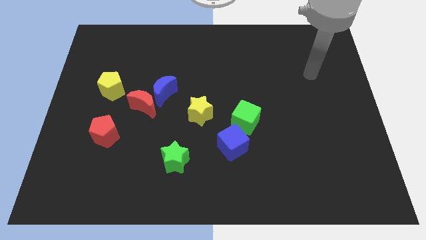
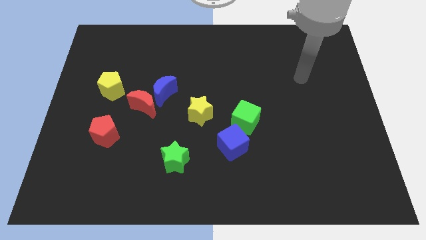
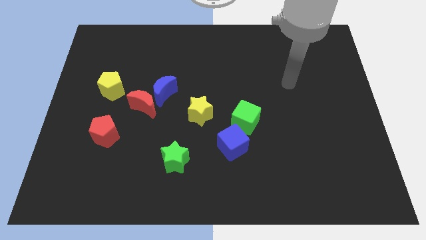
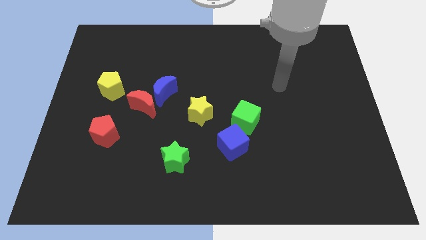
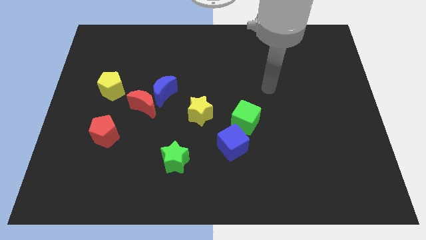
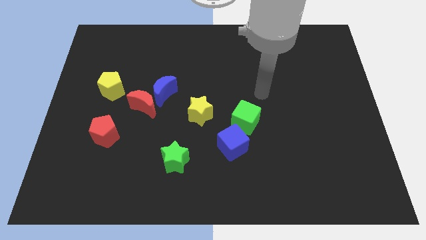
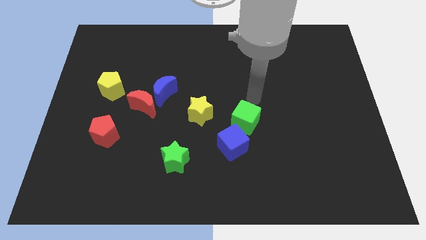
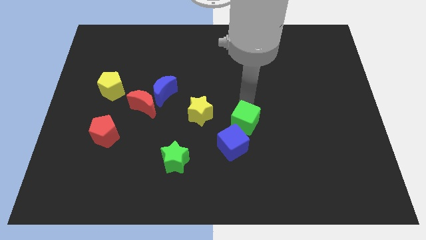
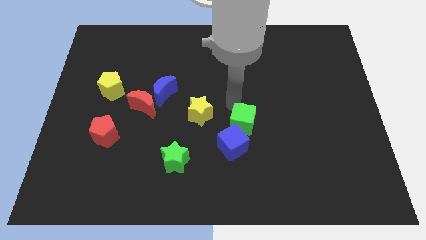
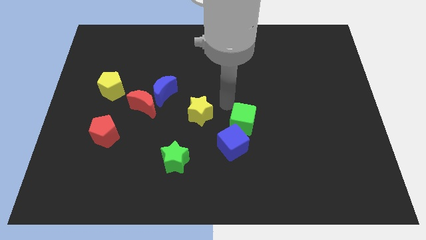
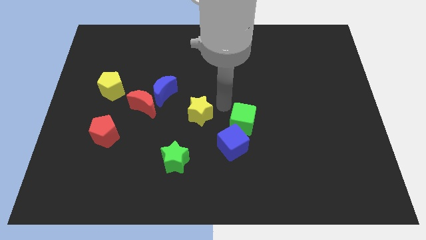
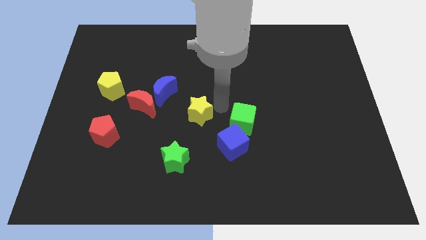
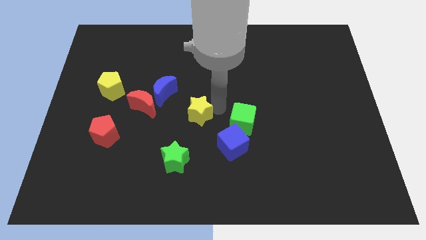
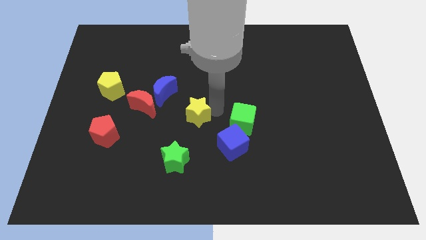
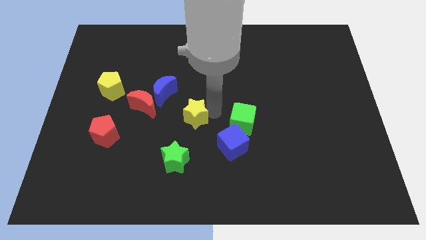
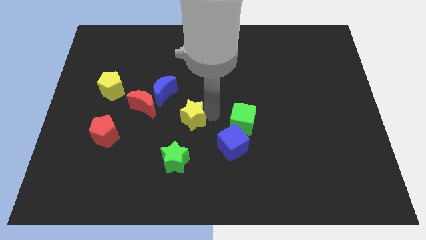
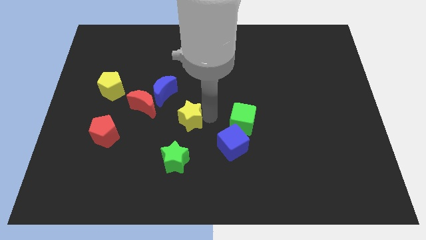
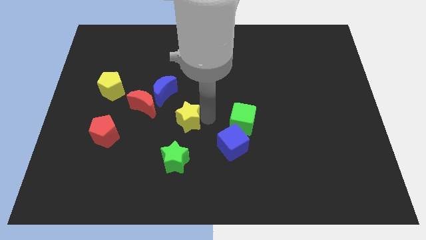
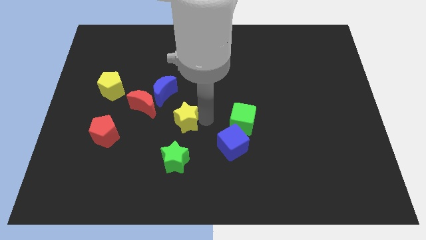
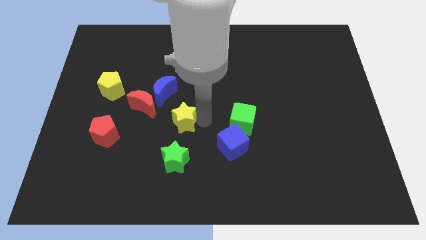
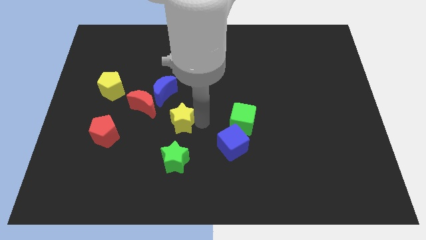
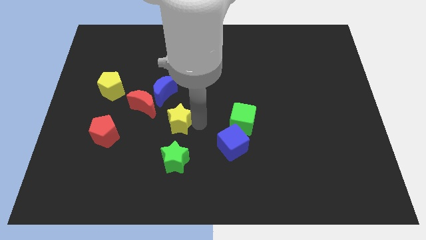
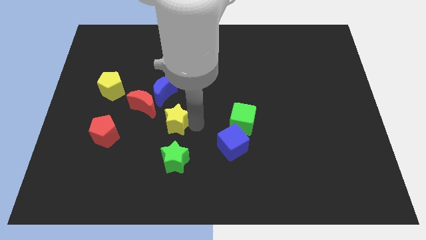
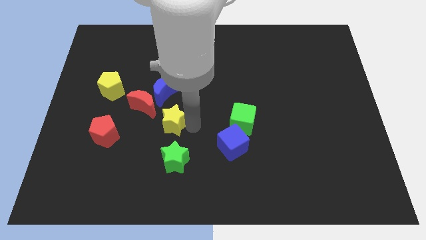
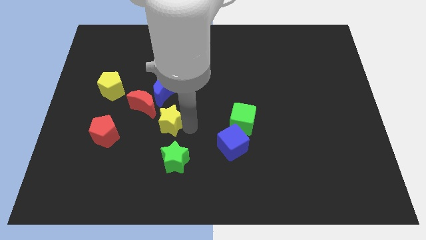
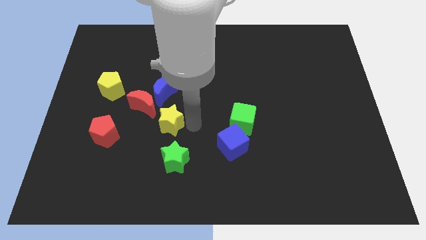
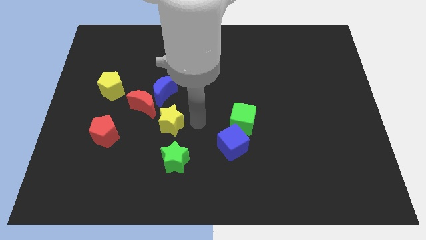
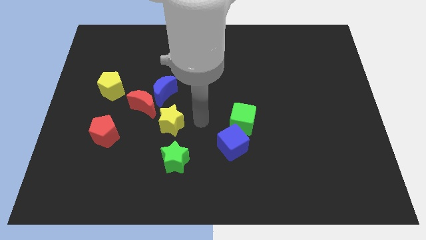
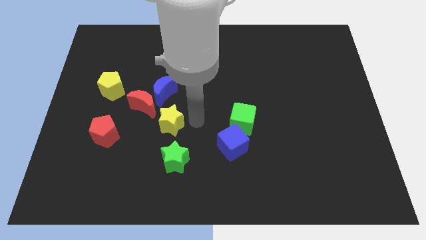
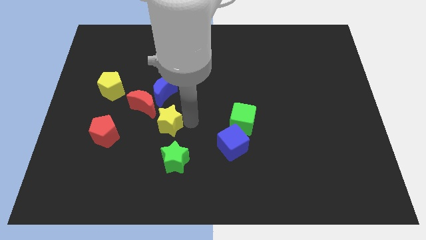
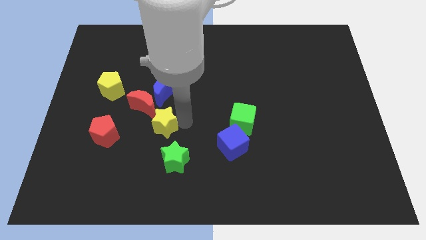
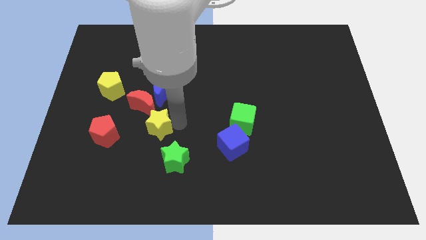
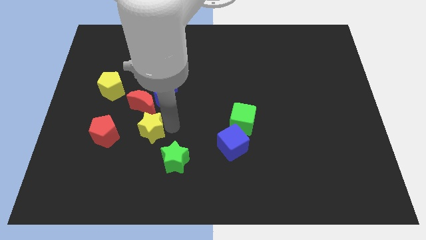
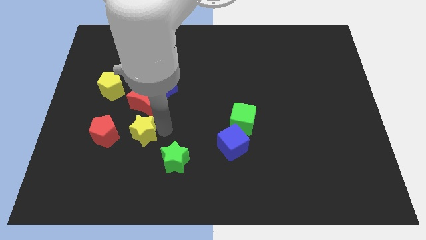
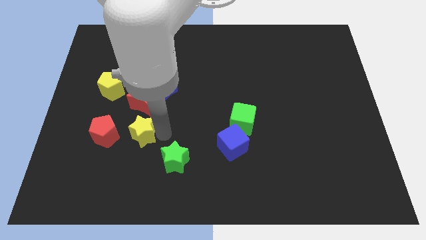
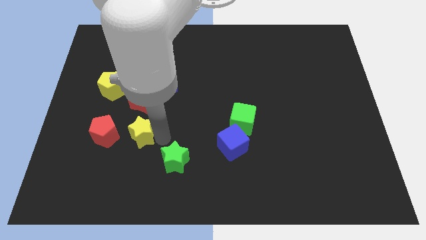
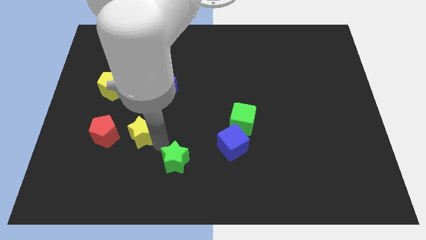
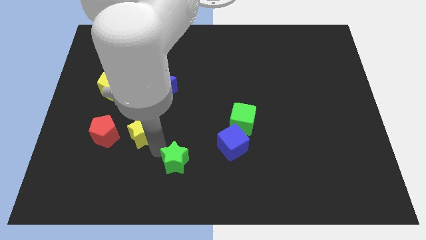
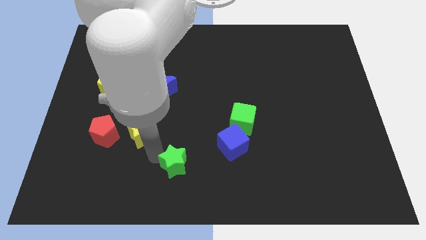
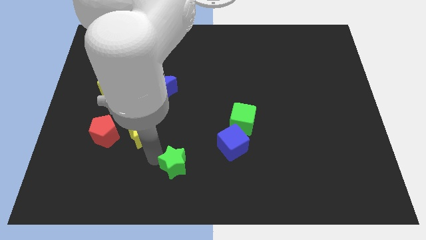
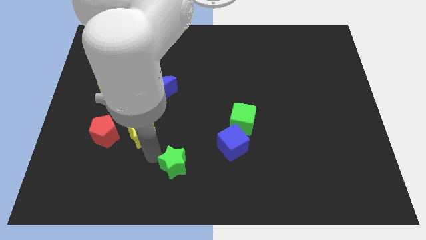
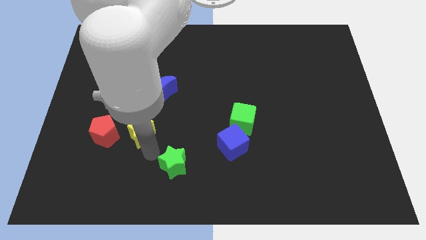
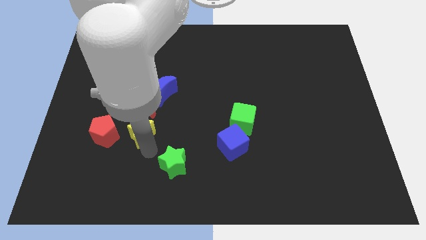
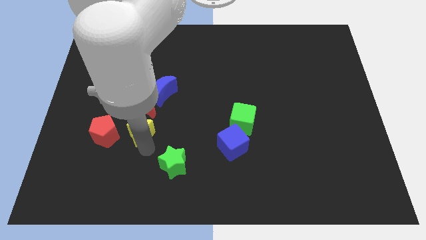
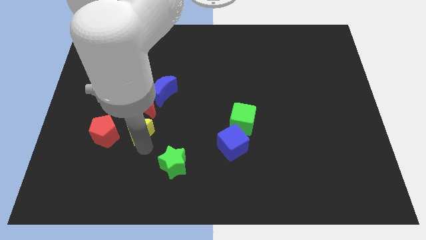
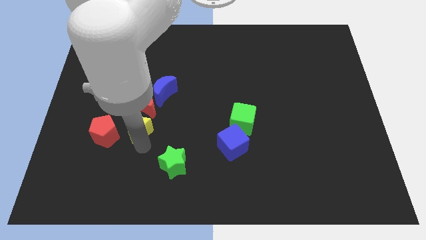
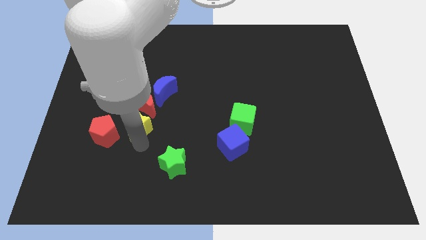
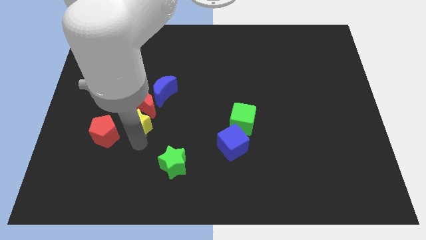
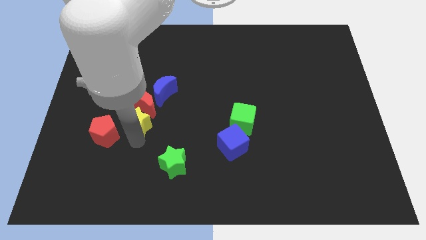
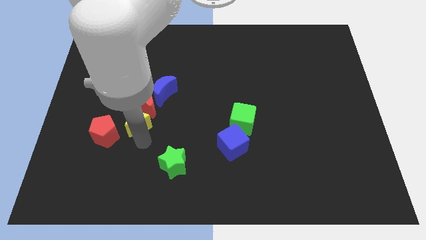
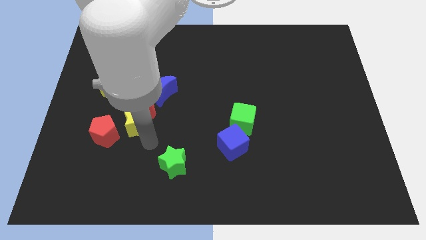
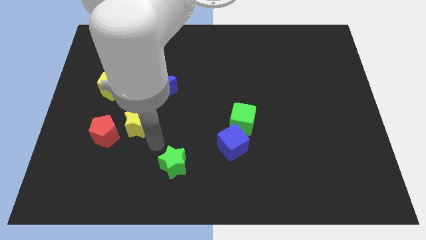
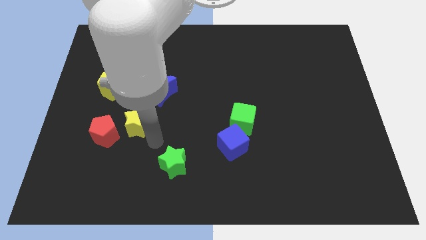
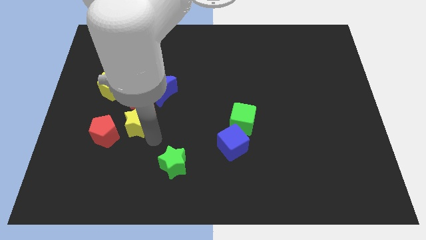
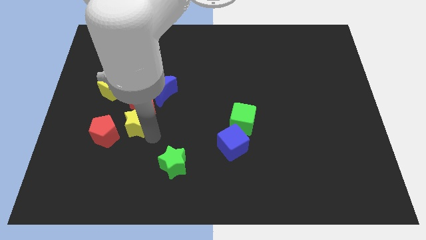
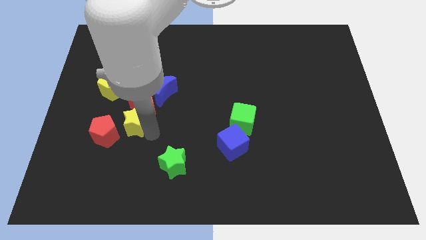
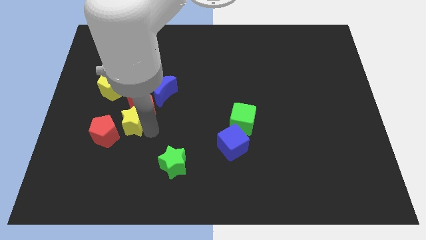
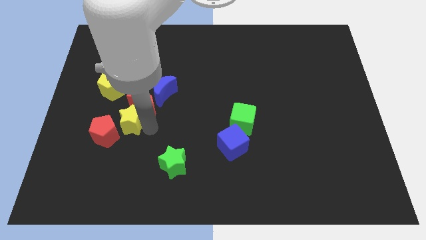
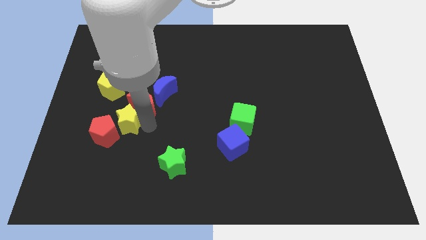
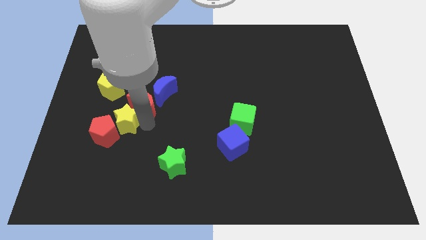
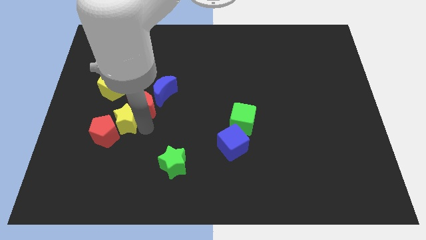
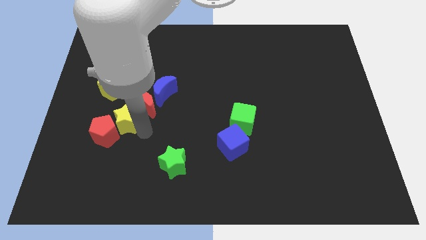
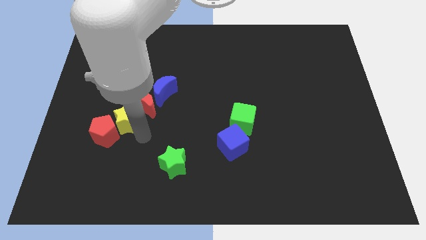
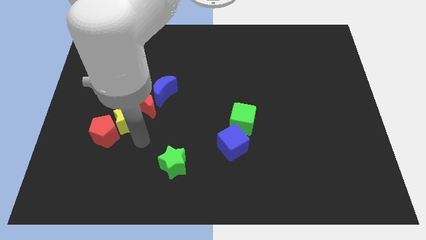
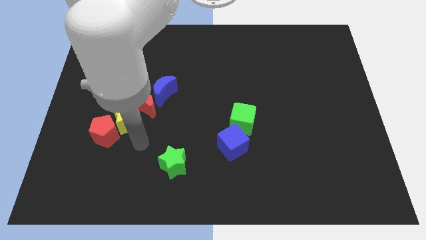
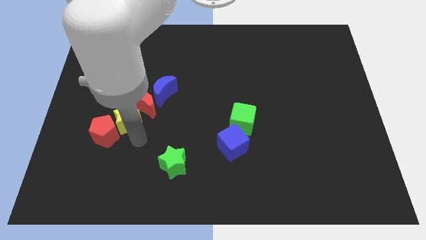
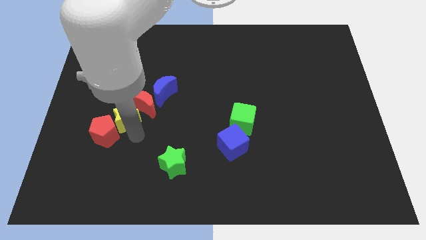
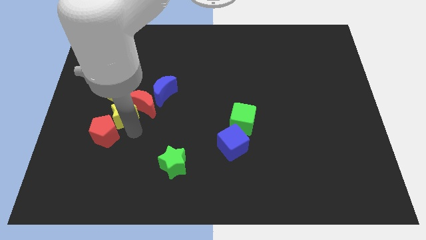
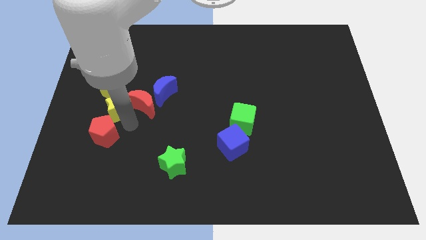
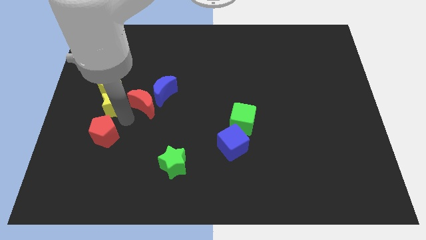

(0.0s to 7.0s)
put the yellow star close to the yellow pentagon

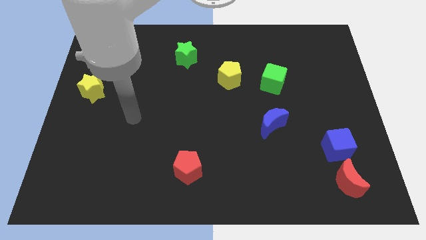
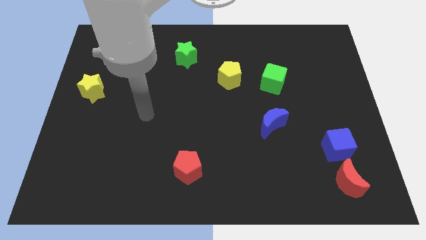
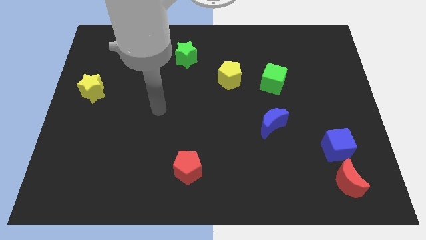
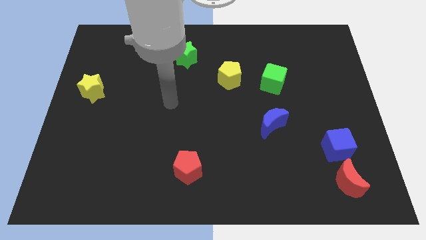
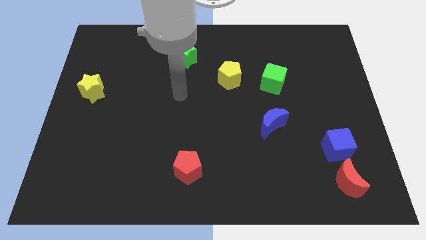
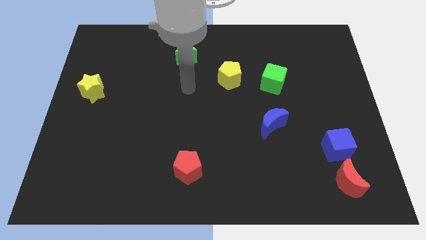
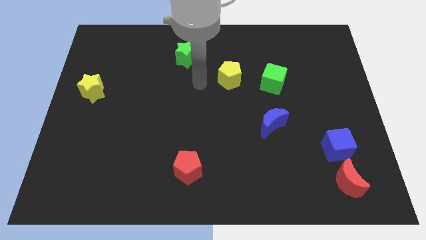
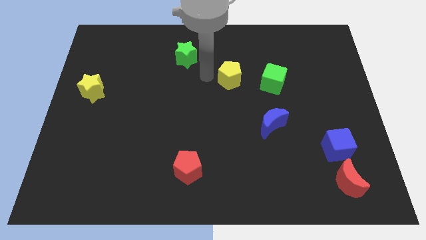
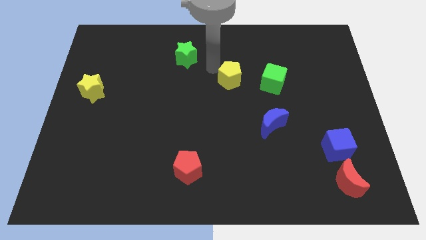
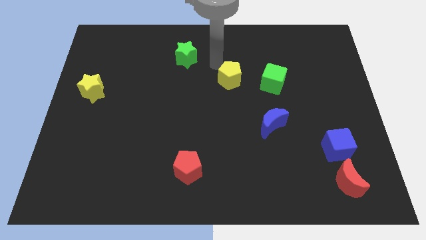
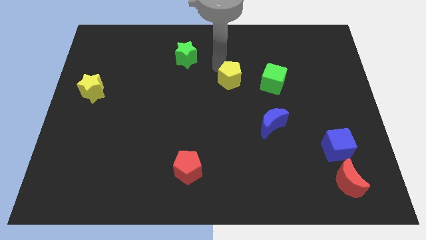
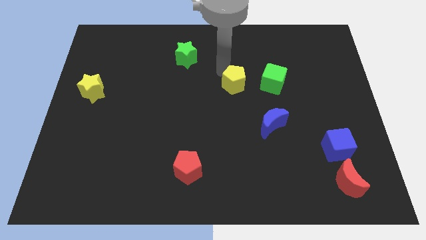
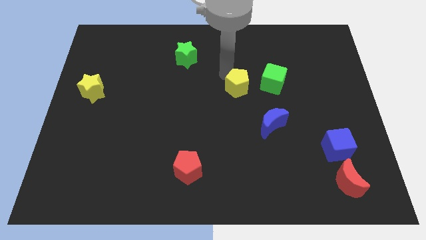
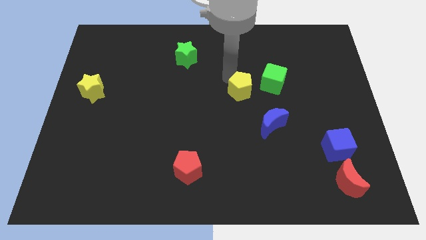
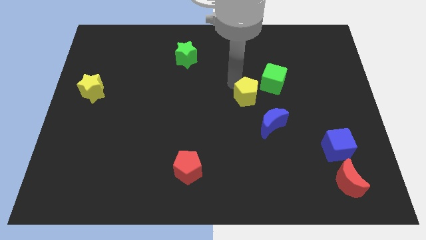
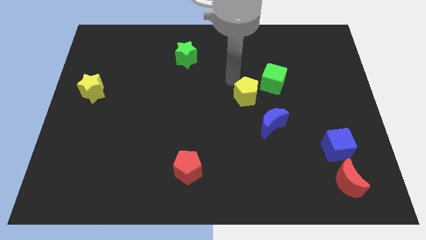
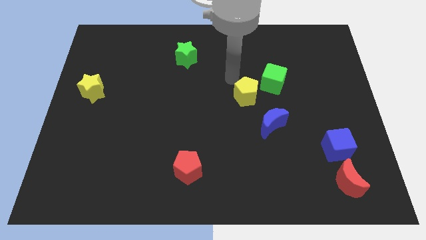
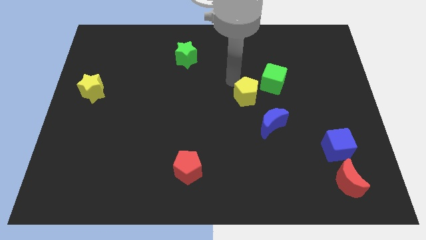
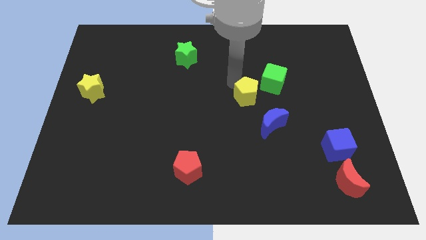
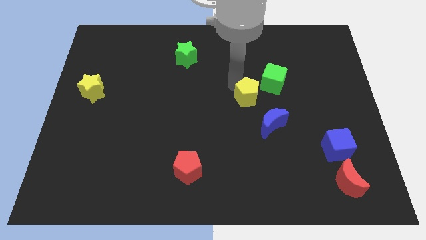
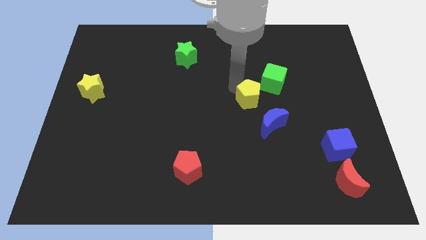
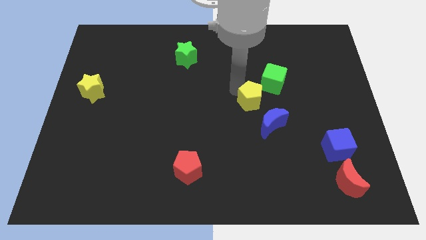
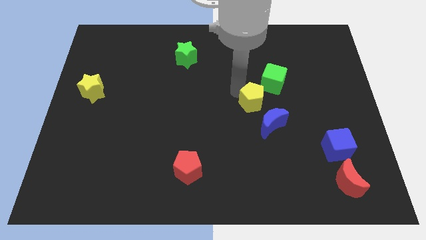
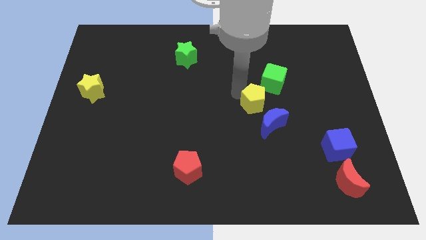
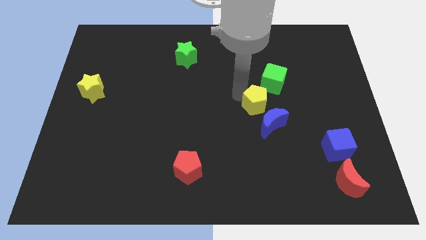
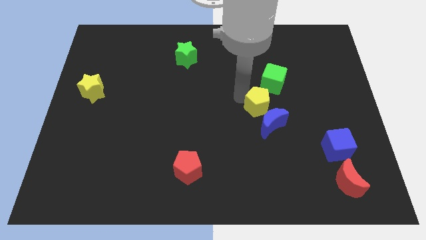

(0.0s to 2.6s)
push the yellow pentagon towards the blue moon
